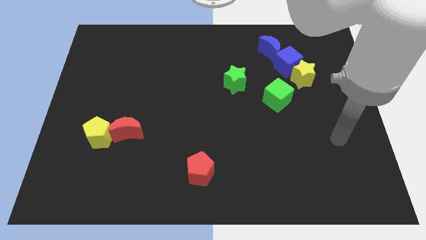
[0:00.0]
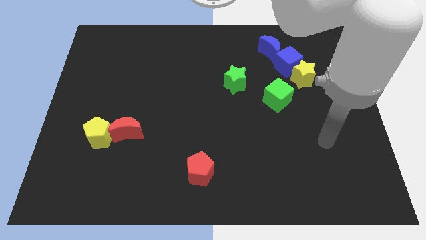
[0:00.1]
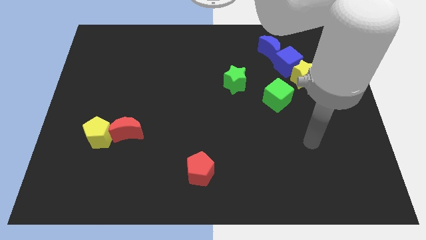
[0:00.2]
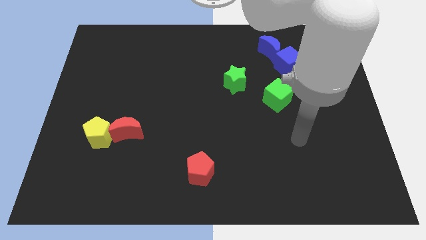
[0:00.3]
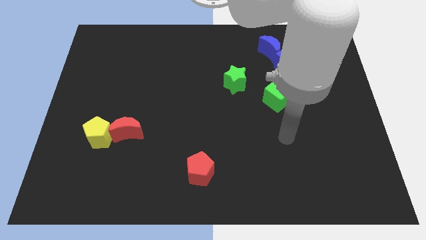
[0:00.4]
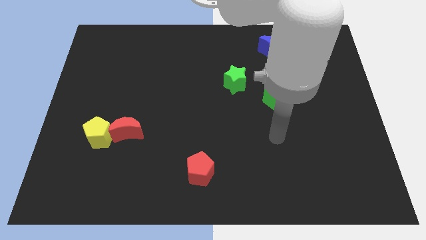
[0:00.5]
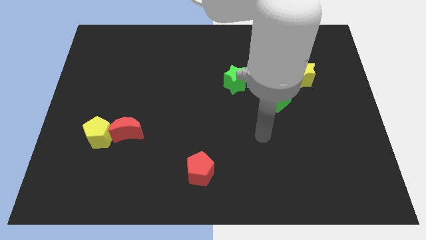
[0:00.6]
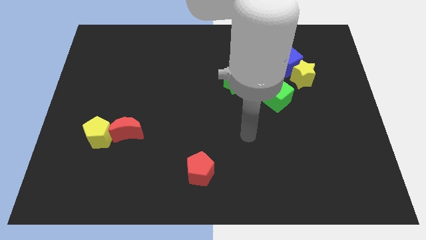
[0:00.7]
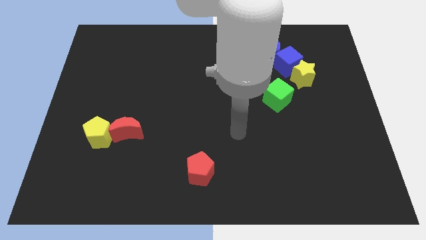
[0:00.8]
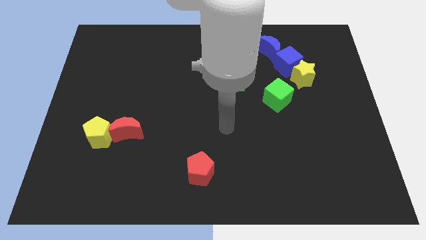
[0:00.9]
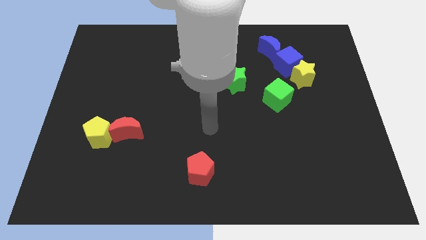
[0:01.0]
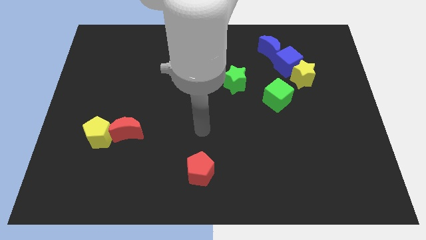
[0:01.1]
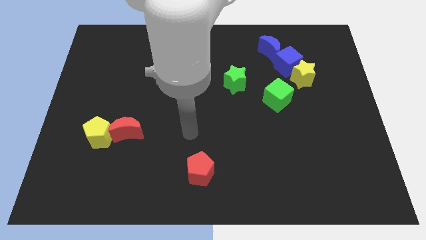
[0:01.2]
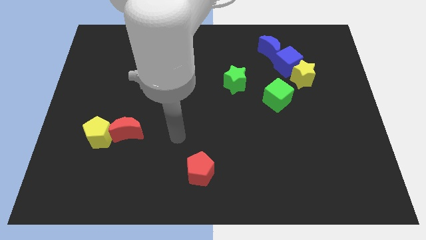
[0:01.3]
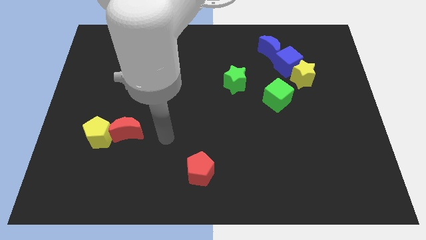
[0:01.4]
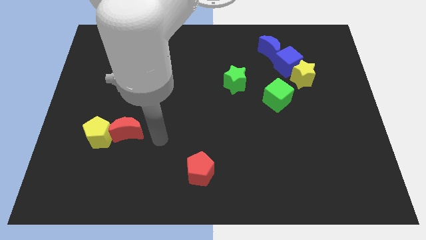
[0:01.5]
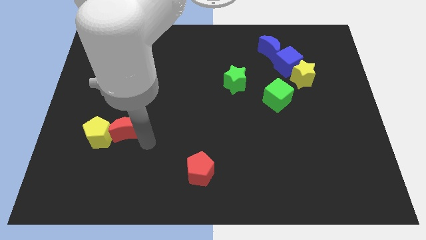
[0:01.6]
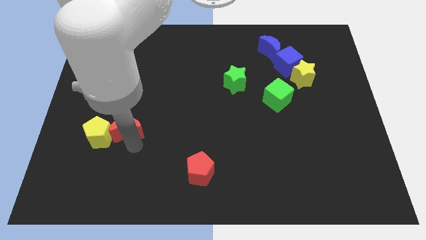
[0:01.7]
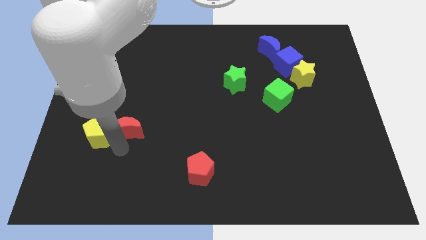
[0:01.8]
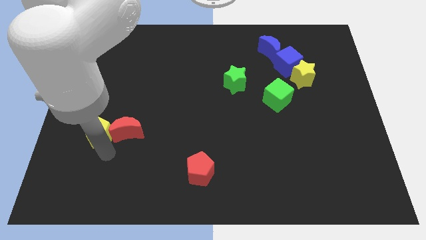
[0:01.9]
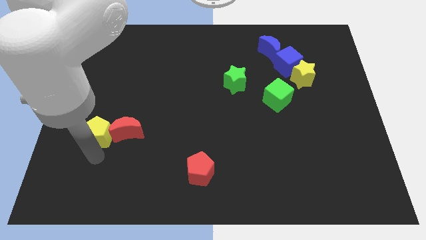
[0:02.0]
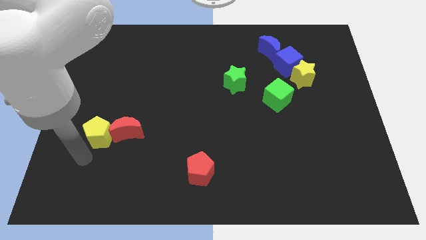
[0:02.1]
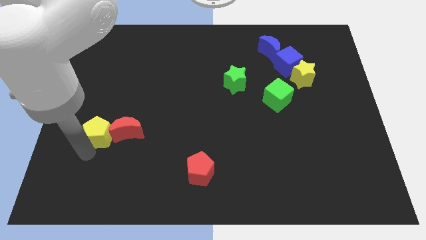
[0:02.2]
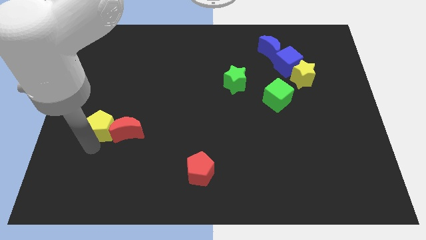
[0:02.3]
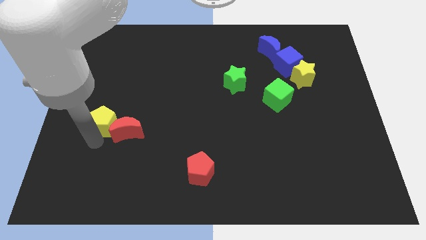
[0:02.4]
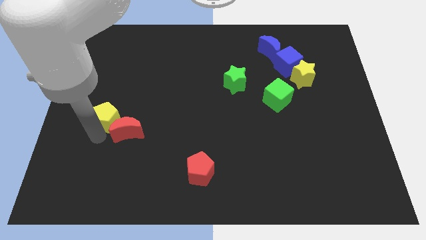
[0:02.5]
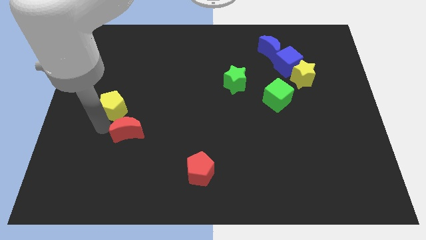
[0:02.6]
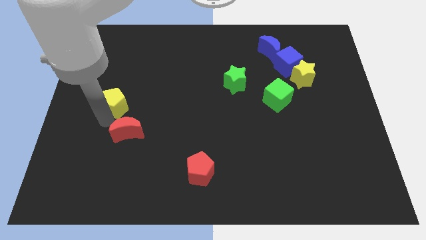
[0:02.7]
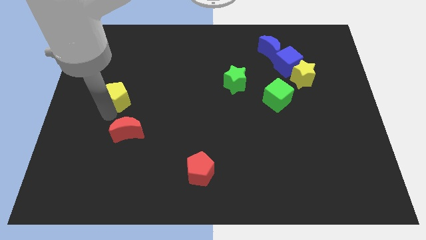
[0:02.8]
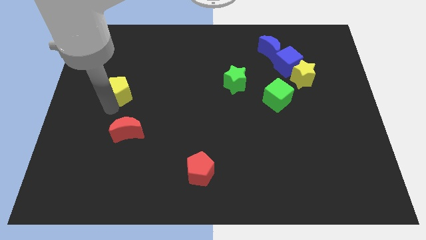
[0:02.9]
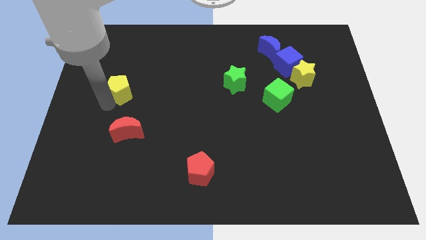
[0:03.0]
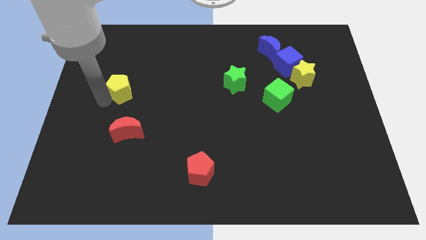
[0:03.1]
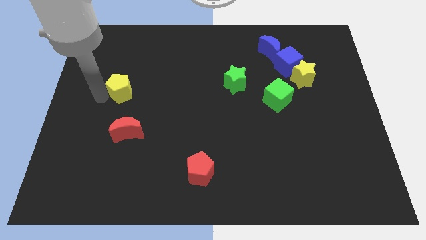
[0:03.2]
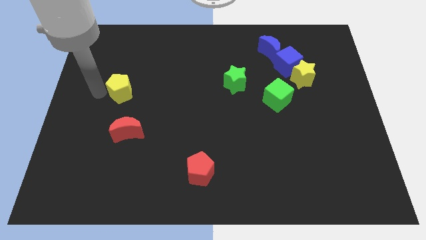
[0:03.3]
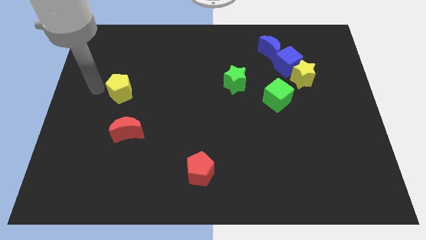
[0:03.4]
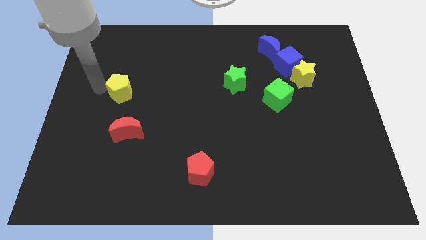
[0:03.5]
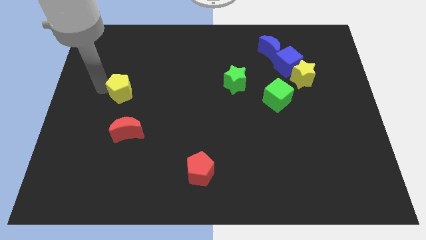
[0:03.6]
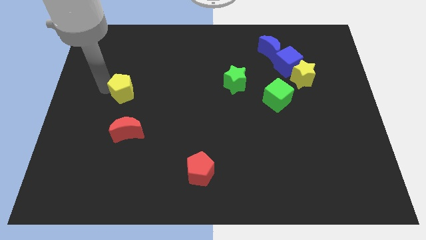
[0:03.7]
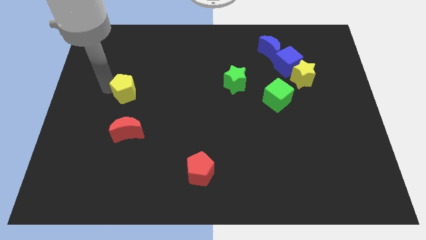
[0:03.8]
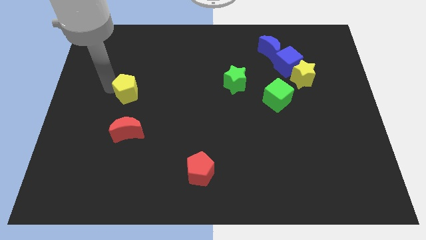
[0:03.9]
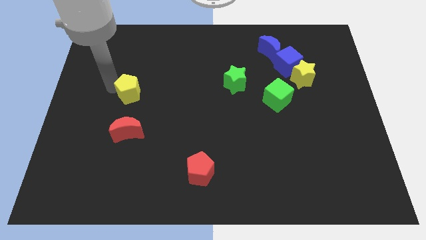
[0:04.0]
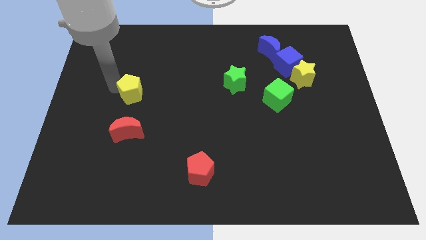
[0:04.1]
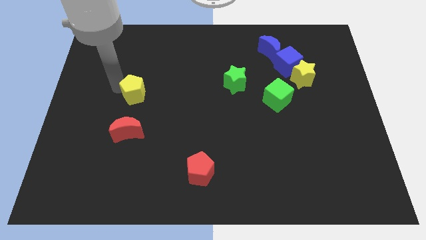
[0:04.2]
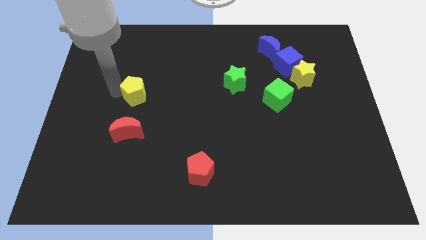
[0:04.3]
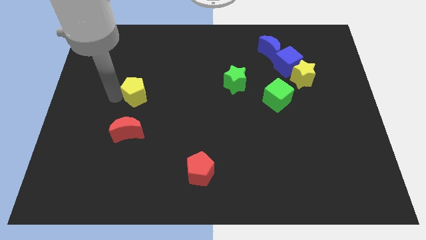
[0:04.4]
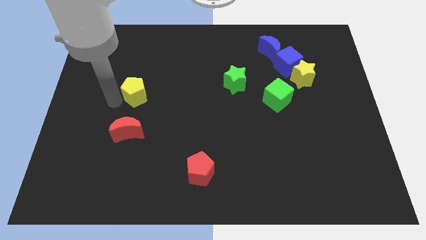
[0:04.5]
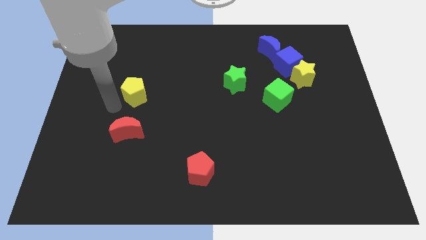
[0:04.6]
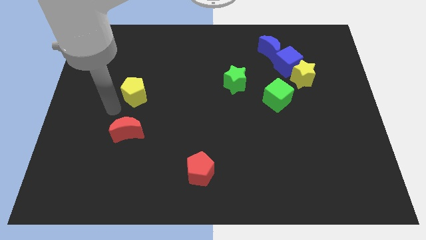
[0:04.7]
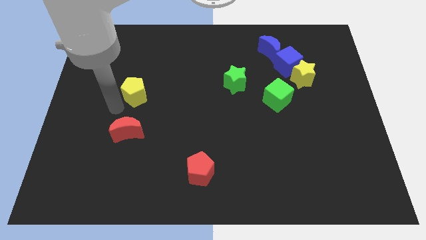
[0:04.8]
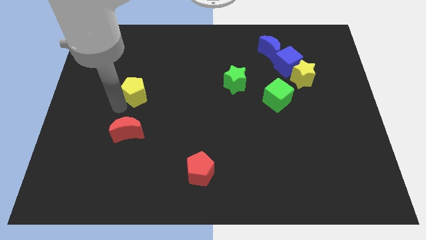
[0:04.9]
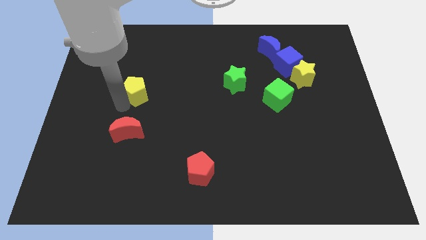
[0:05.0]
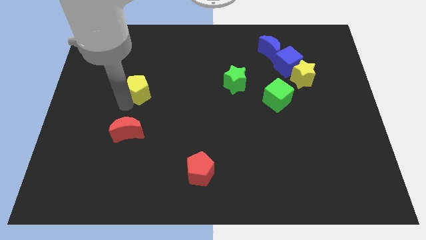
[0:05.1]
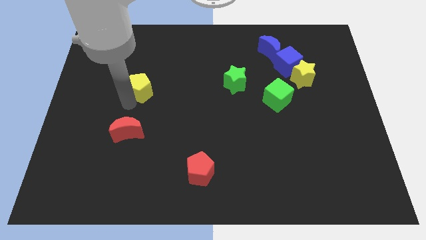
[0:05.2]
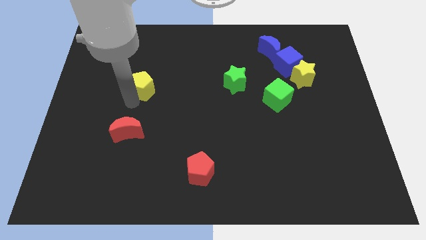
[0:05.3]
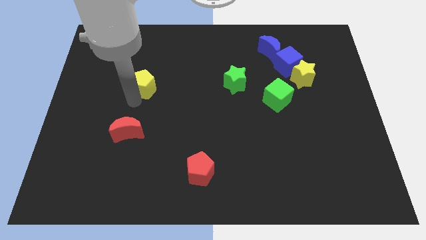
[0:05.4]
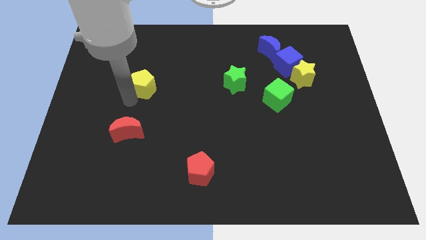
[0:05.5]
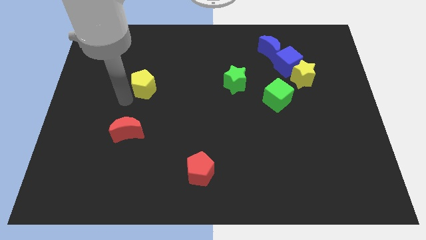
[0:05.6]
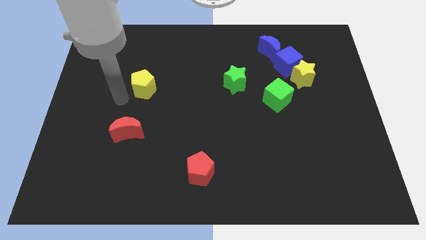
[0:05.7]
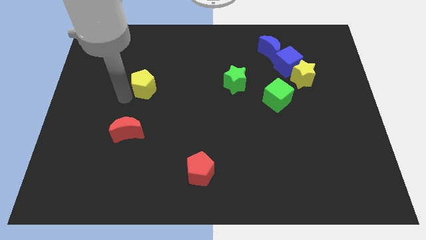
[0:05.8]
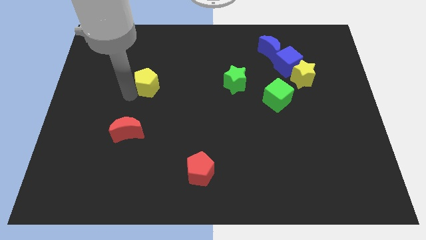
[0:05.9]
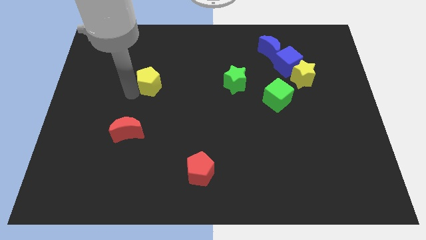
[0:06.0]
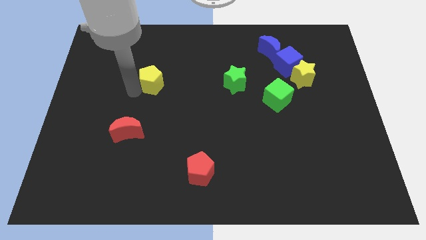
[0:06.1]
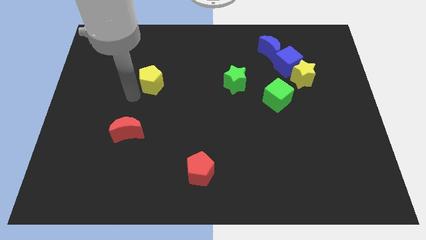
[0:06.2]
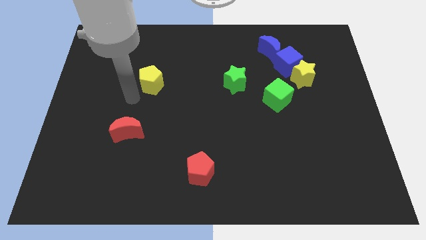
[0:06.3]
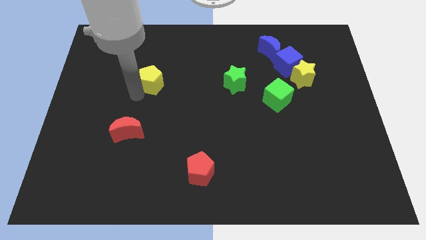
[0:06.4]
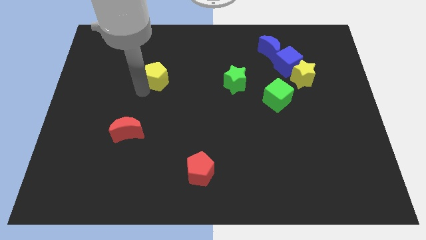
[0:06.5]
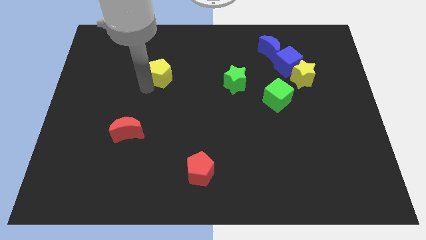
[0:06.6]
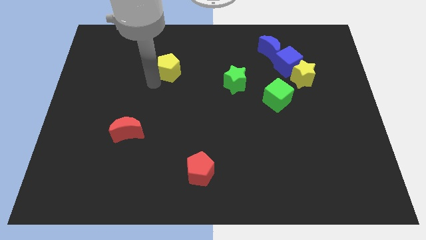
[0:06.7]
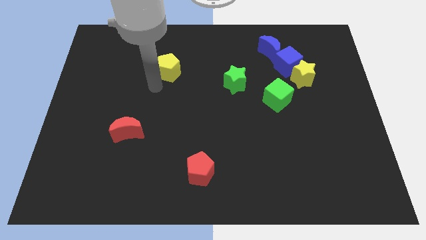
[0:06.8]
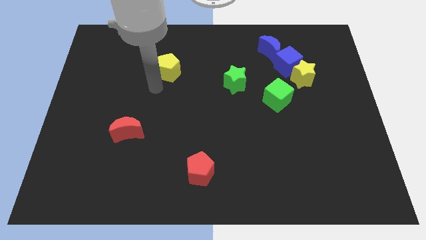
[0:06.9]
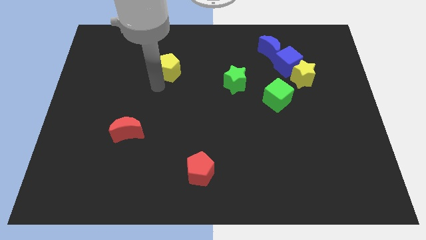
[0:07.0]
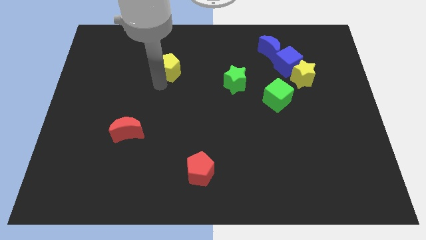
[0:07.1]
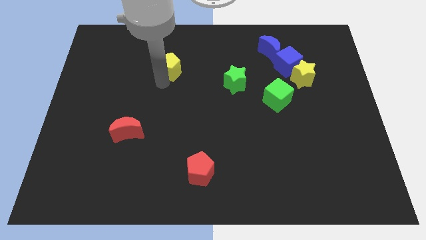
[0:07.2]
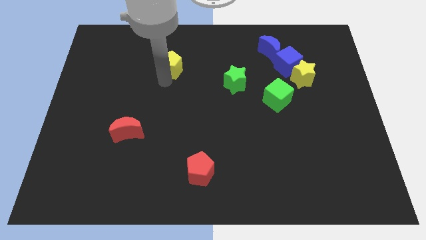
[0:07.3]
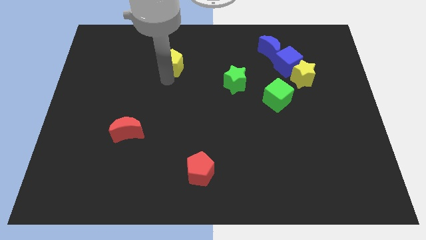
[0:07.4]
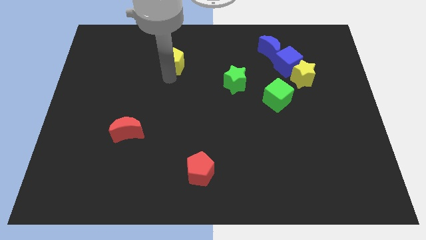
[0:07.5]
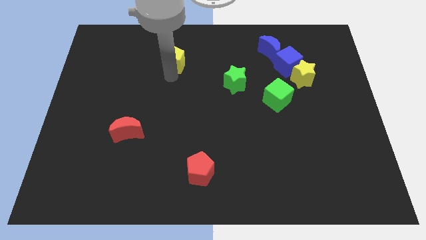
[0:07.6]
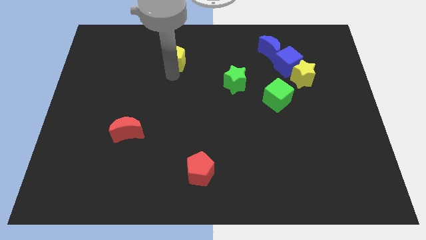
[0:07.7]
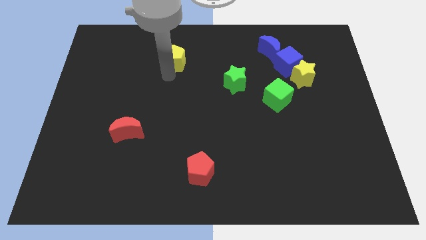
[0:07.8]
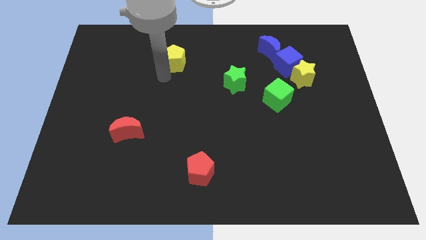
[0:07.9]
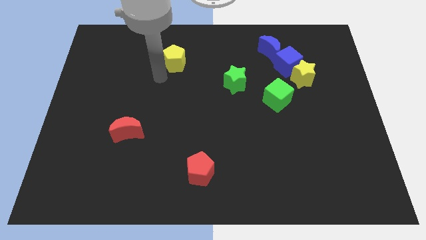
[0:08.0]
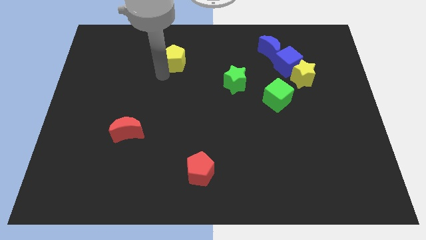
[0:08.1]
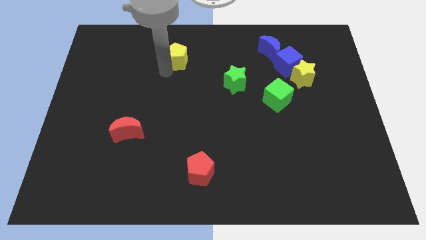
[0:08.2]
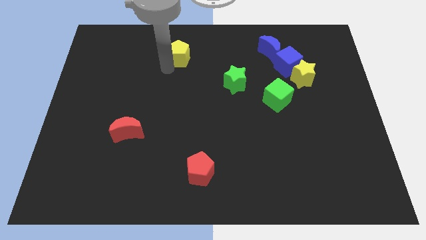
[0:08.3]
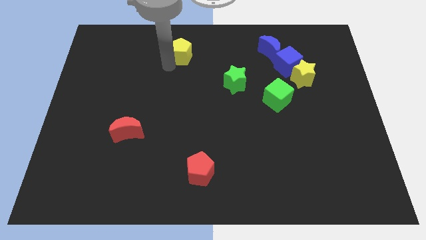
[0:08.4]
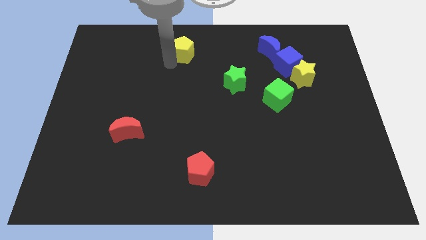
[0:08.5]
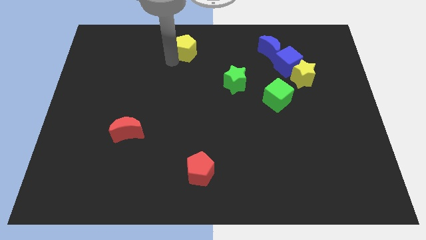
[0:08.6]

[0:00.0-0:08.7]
slide the yellow pentagon to the top
